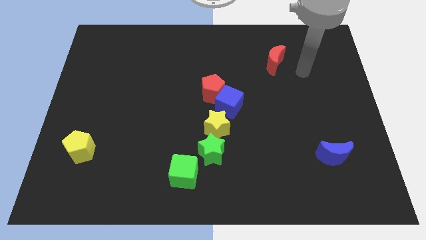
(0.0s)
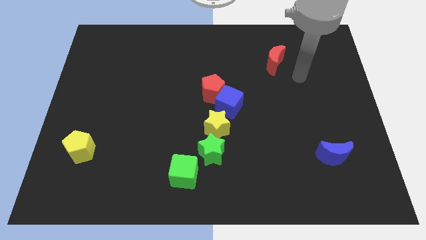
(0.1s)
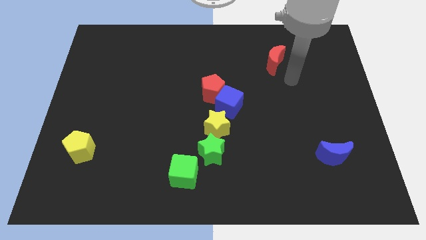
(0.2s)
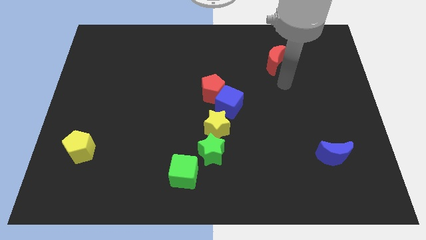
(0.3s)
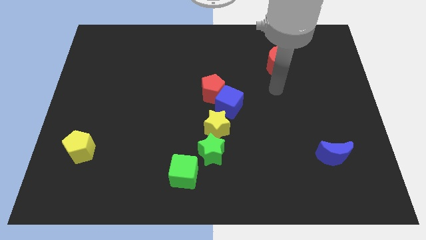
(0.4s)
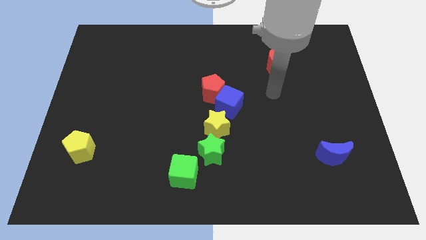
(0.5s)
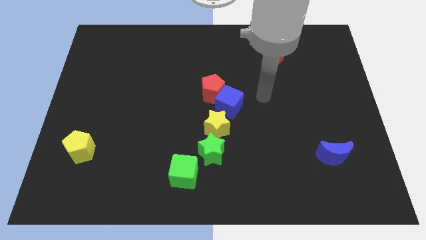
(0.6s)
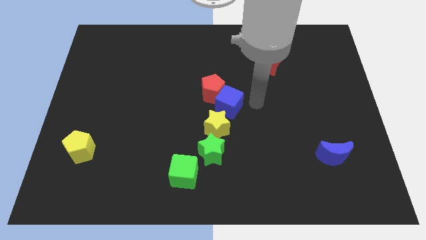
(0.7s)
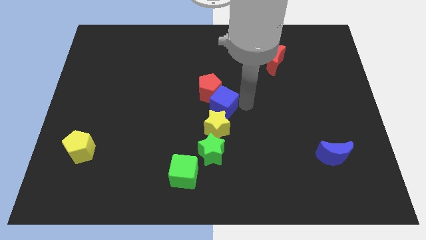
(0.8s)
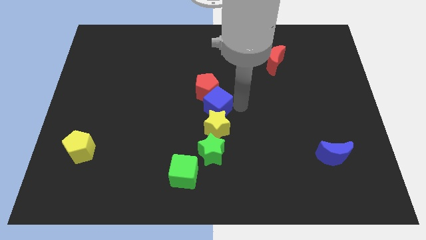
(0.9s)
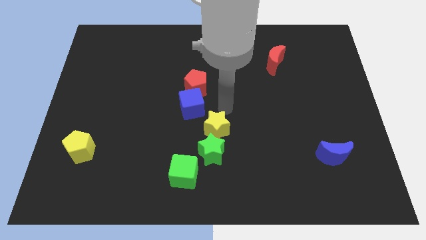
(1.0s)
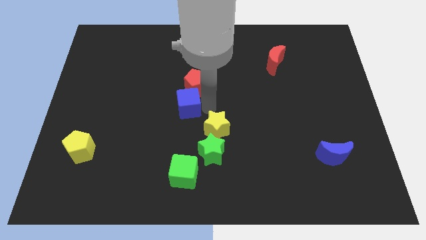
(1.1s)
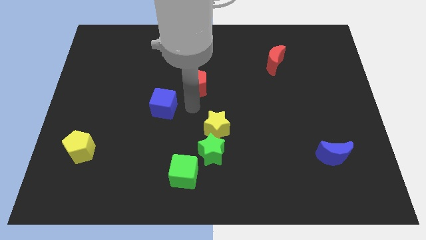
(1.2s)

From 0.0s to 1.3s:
pull the red pentagon apart from the blue cube

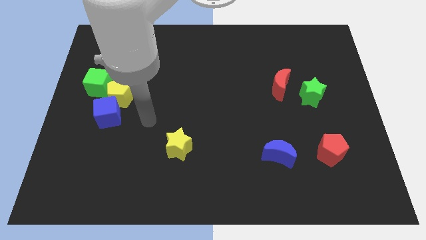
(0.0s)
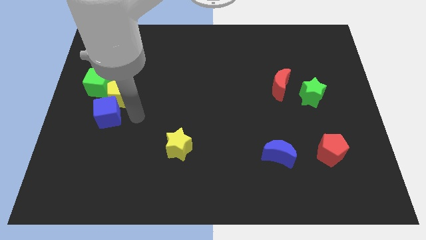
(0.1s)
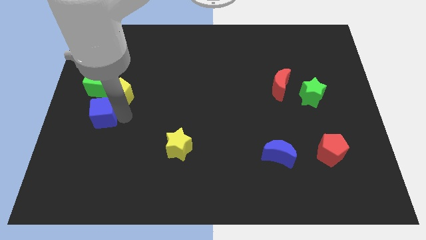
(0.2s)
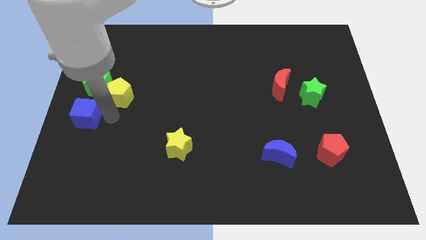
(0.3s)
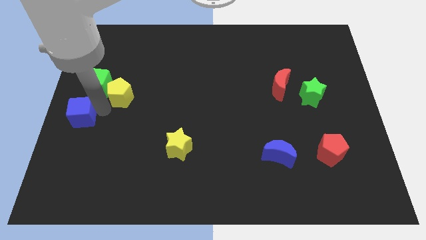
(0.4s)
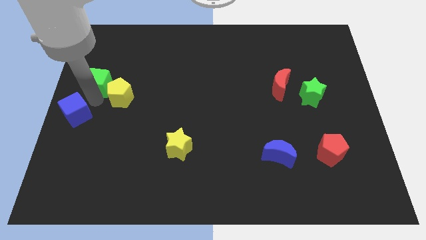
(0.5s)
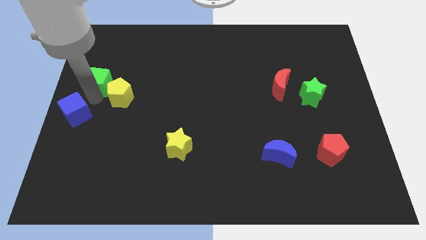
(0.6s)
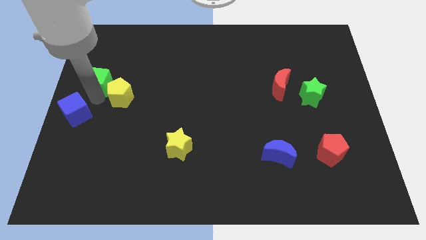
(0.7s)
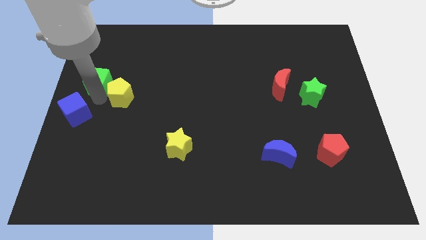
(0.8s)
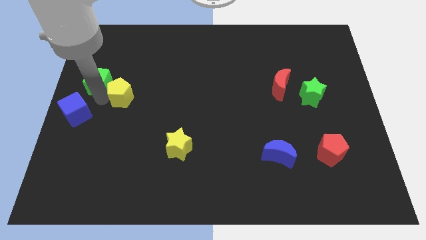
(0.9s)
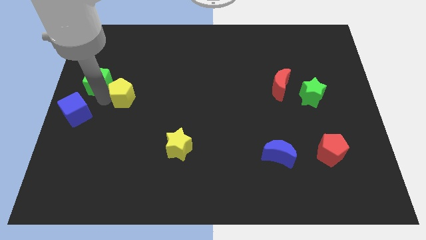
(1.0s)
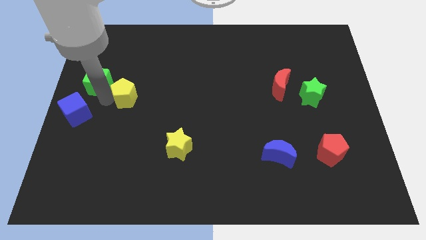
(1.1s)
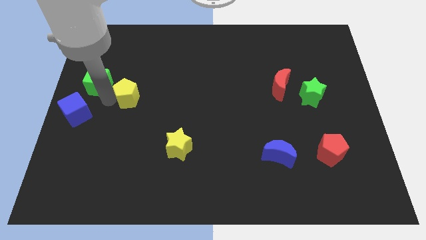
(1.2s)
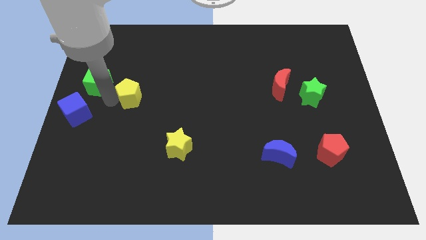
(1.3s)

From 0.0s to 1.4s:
move the yellow pentagon away from the blue cube and green cube

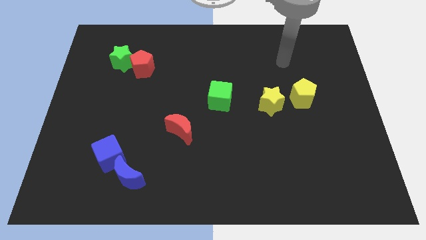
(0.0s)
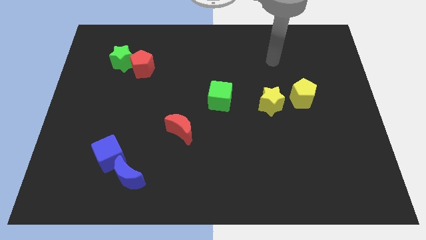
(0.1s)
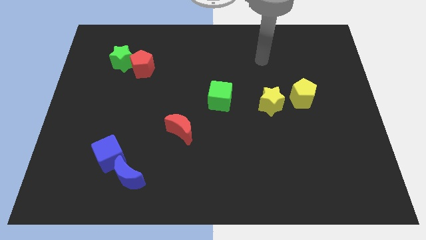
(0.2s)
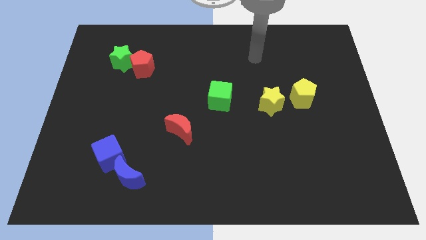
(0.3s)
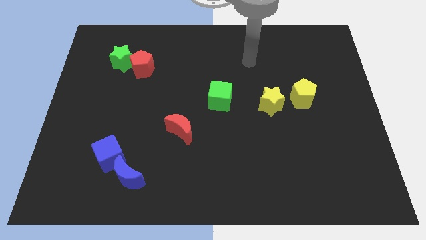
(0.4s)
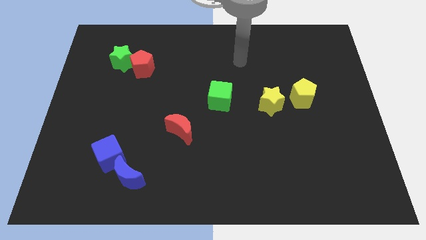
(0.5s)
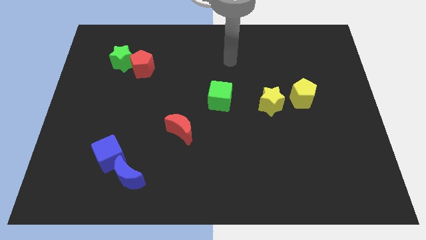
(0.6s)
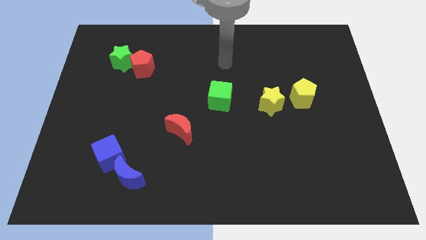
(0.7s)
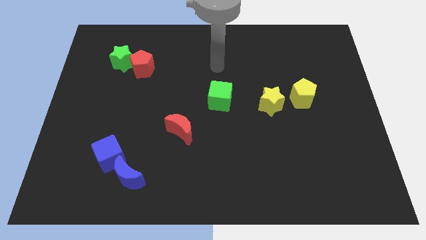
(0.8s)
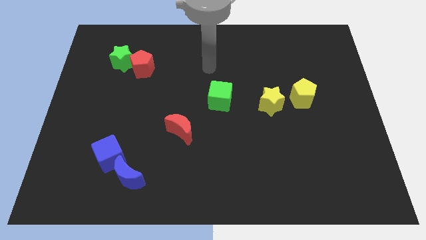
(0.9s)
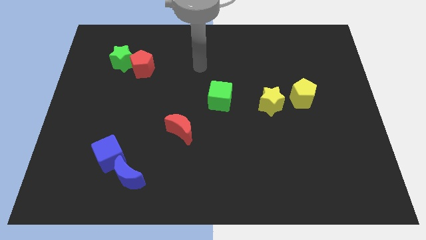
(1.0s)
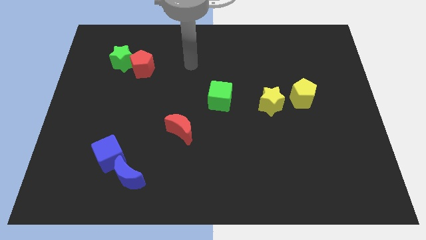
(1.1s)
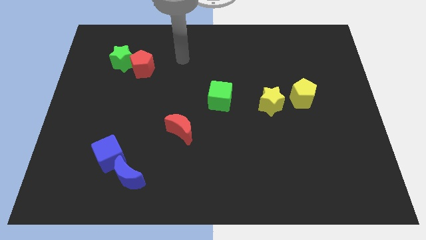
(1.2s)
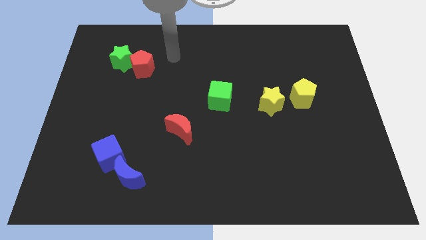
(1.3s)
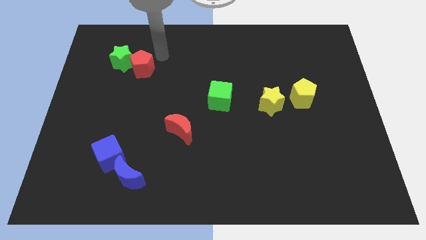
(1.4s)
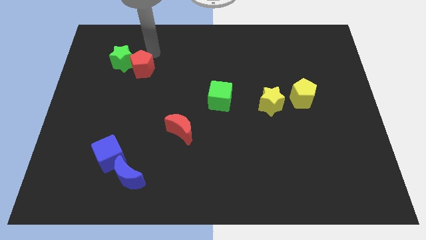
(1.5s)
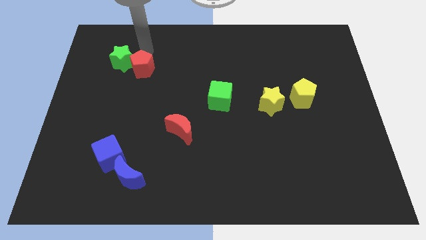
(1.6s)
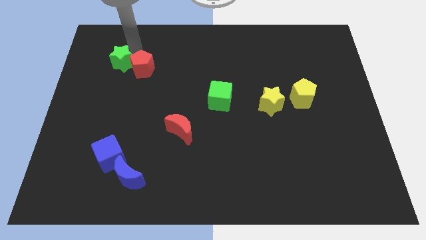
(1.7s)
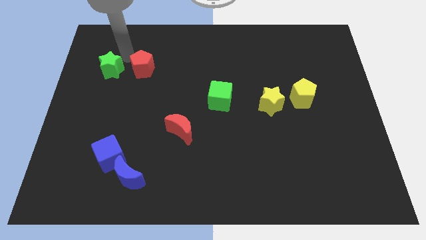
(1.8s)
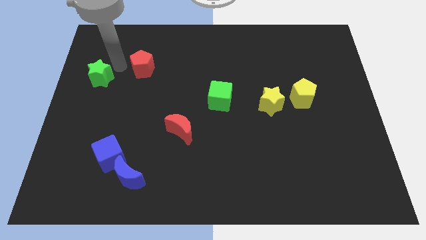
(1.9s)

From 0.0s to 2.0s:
move the red pentagon away from the green star

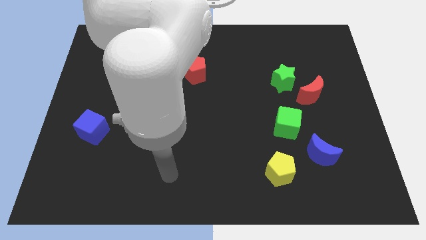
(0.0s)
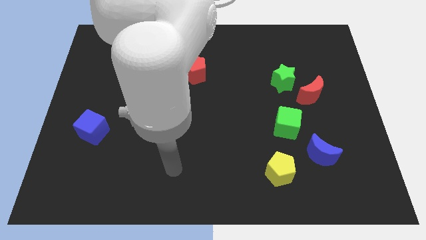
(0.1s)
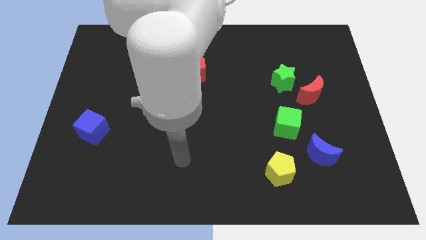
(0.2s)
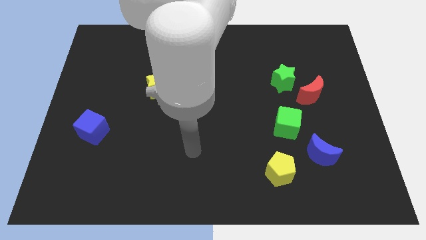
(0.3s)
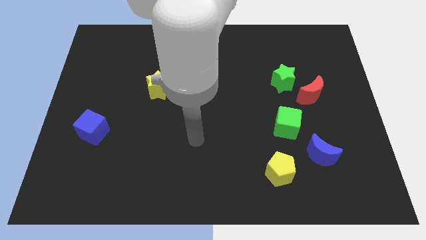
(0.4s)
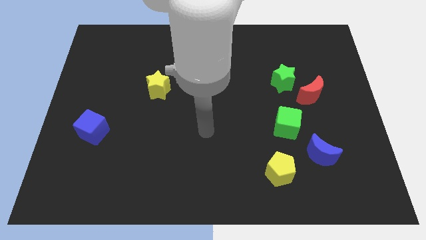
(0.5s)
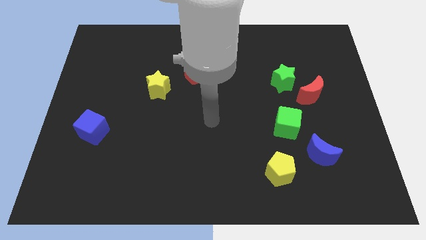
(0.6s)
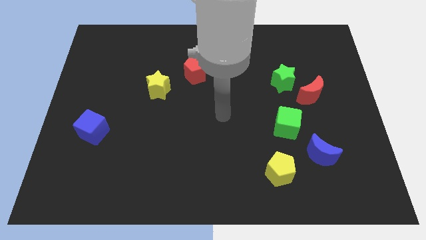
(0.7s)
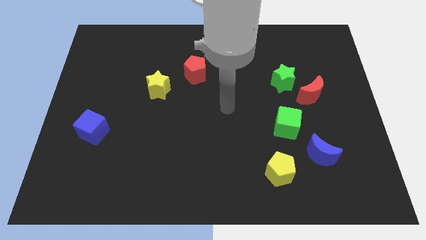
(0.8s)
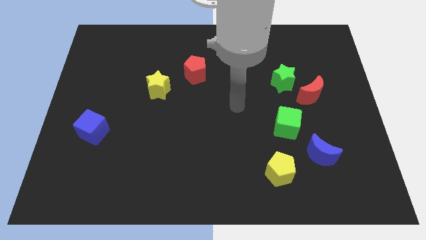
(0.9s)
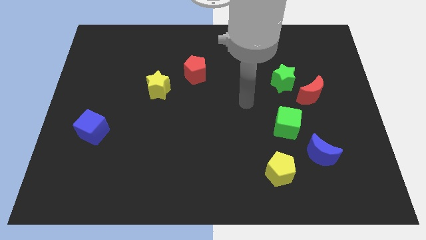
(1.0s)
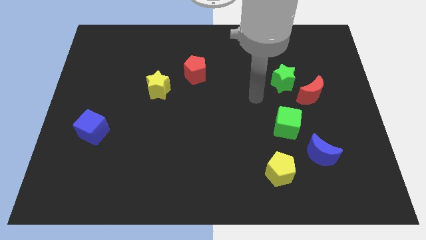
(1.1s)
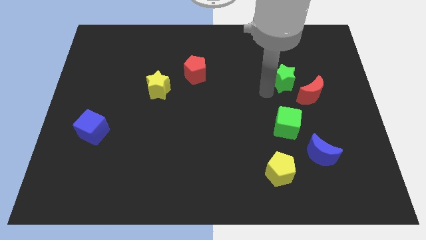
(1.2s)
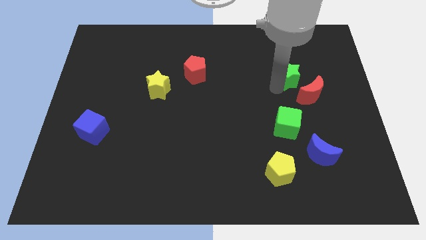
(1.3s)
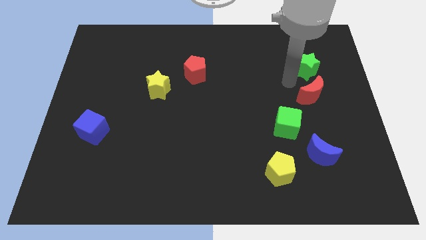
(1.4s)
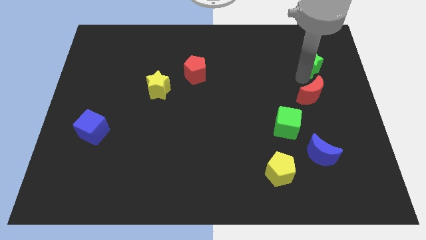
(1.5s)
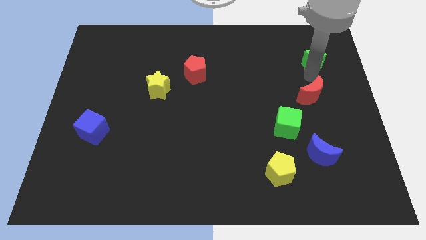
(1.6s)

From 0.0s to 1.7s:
separate the red moon from the green star

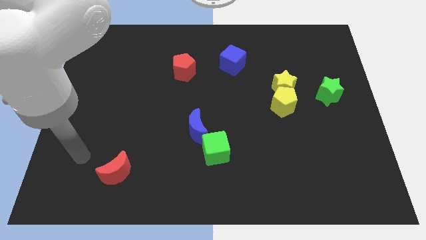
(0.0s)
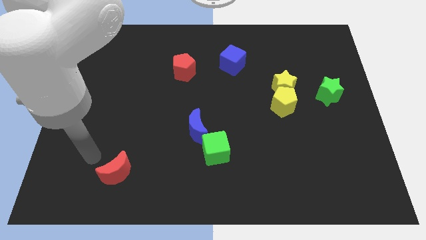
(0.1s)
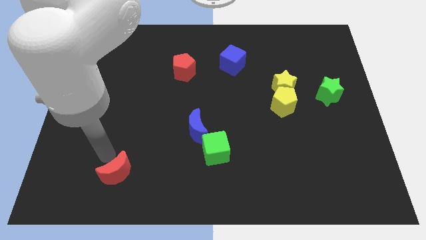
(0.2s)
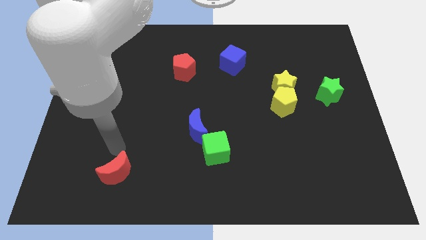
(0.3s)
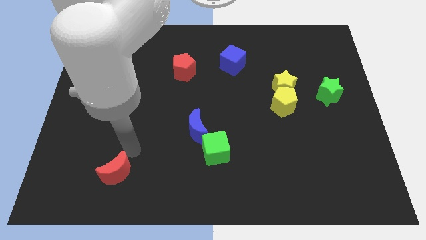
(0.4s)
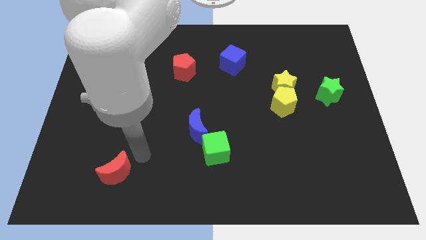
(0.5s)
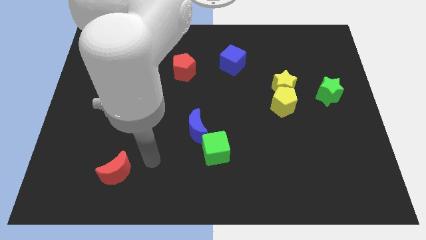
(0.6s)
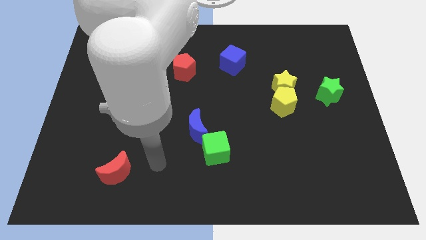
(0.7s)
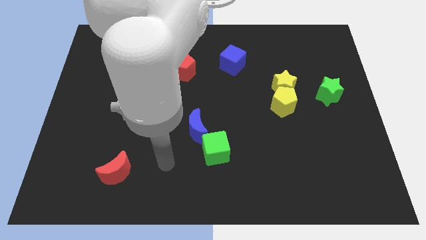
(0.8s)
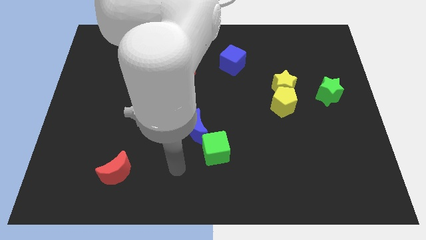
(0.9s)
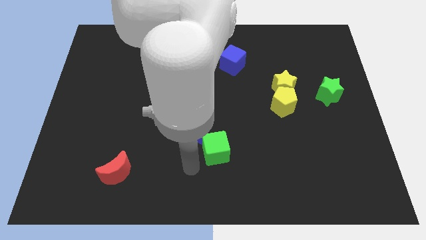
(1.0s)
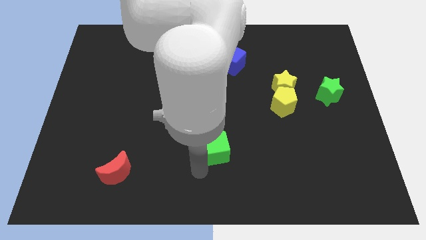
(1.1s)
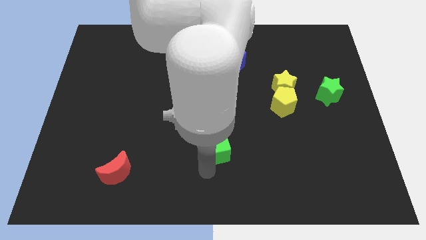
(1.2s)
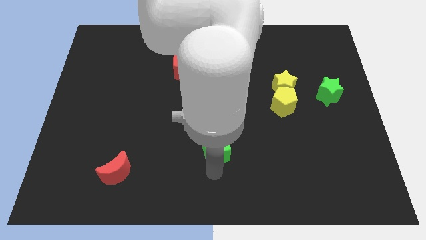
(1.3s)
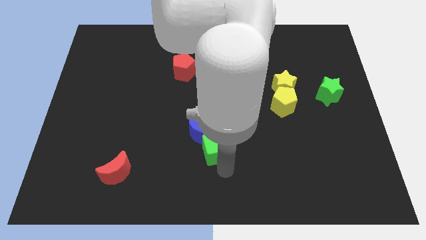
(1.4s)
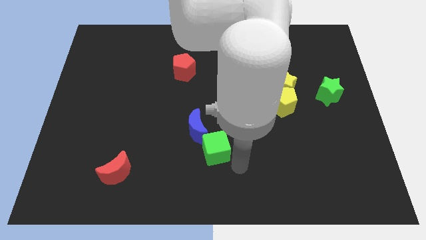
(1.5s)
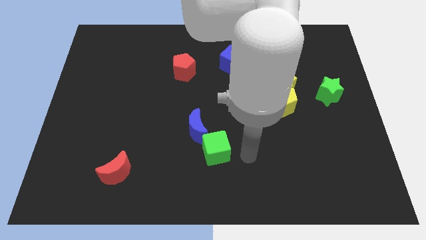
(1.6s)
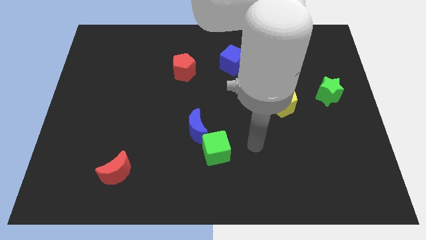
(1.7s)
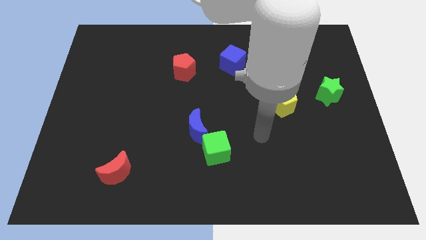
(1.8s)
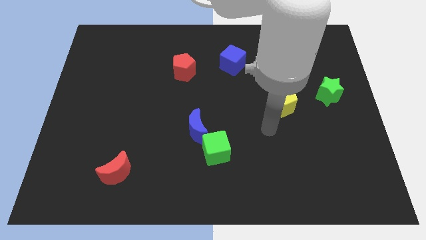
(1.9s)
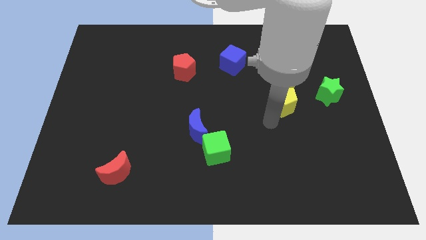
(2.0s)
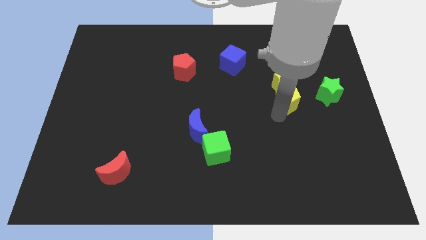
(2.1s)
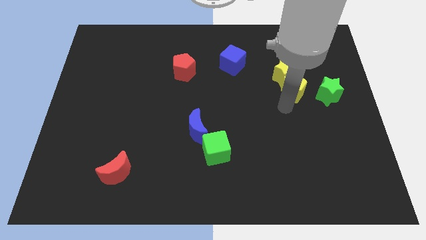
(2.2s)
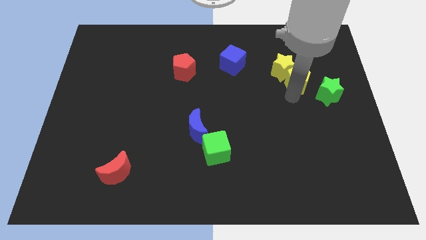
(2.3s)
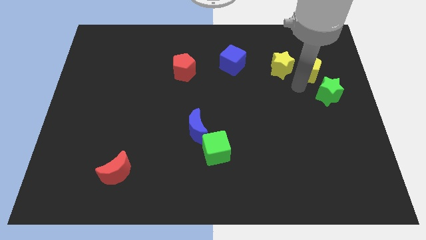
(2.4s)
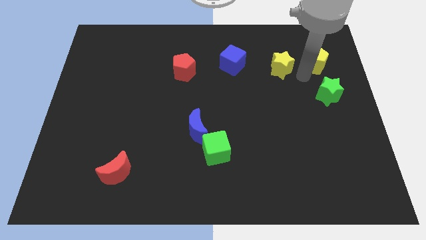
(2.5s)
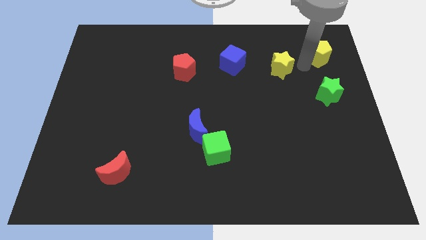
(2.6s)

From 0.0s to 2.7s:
separate the yellow star from the yellow pentagon

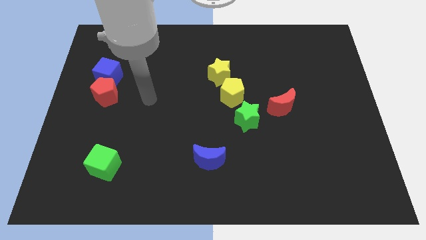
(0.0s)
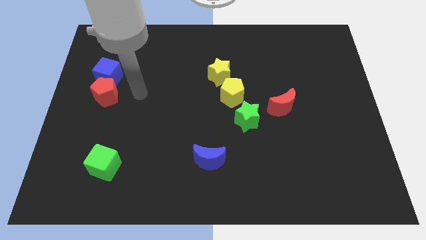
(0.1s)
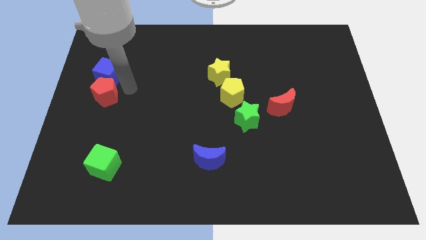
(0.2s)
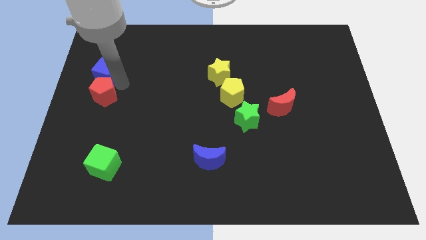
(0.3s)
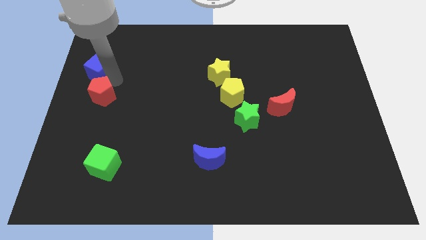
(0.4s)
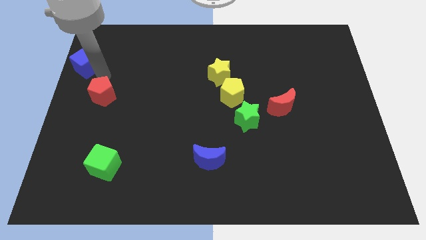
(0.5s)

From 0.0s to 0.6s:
move the red pentagon away from the blue cube
